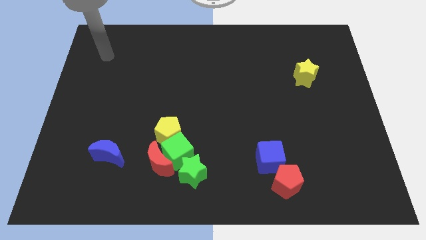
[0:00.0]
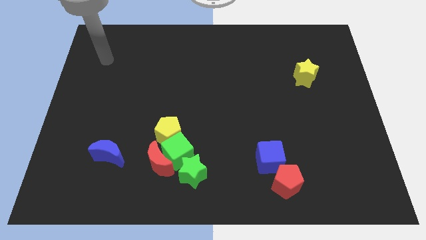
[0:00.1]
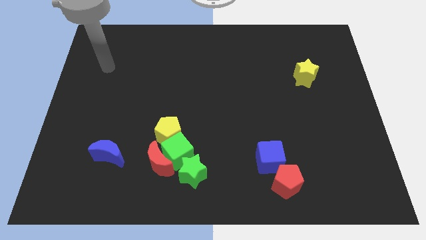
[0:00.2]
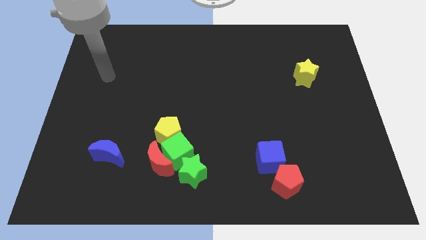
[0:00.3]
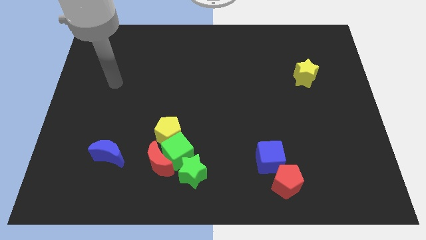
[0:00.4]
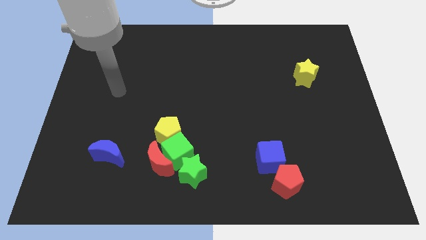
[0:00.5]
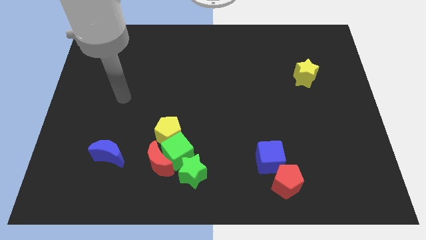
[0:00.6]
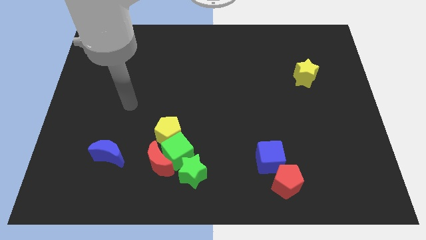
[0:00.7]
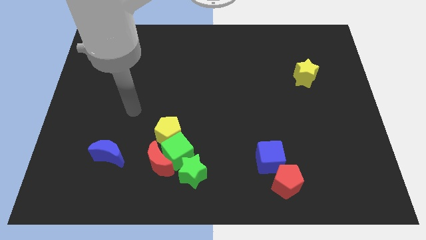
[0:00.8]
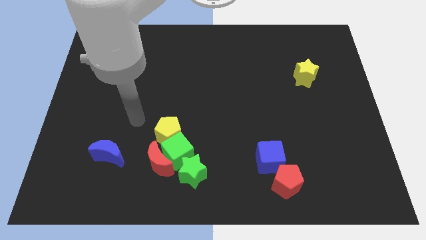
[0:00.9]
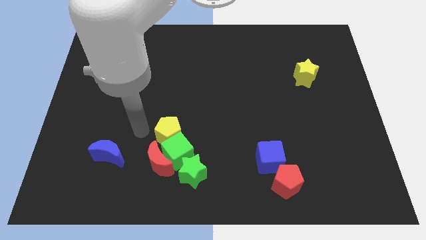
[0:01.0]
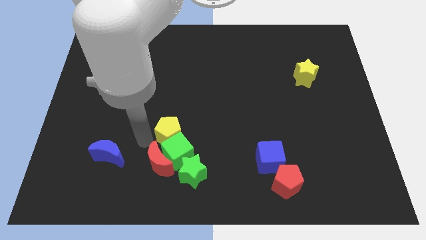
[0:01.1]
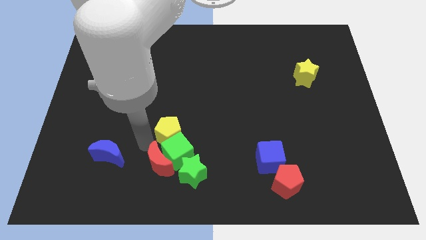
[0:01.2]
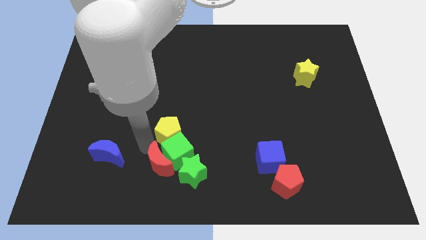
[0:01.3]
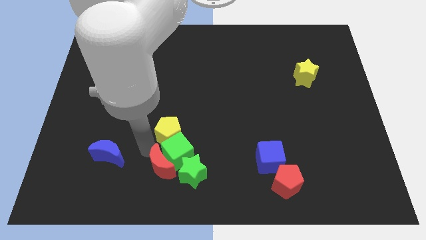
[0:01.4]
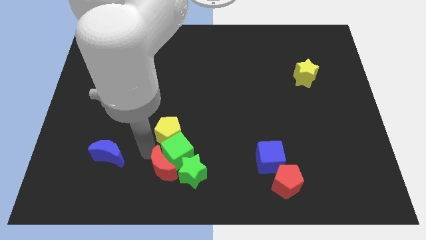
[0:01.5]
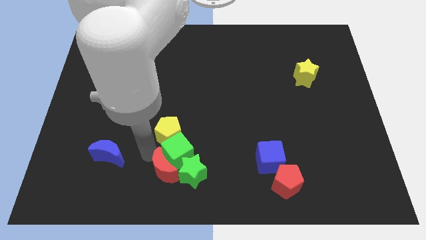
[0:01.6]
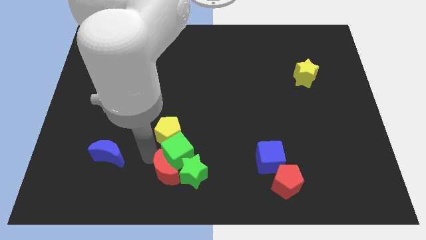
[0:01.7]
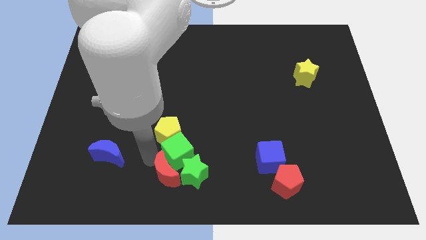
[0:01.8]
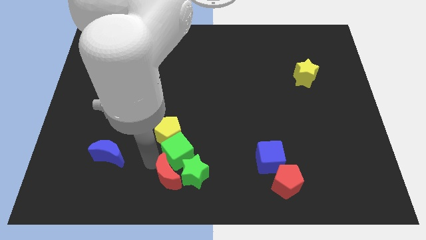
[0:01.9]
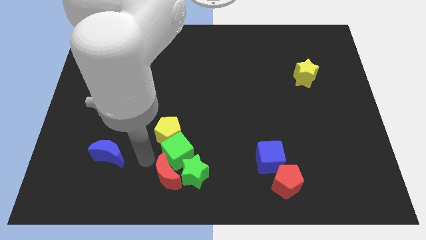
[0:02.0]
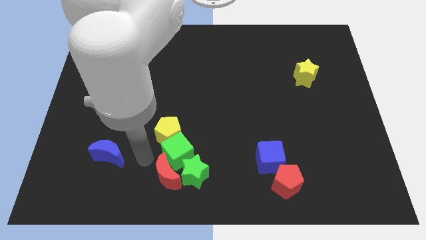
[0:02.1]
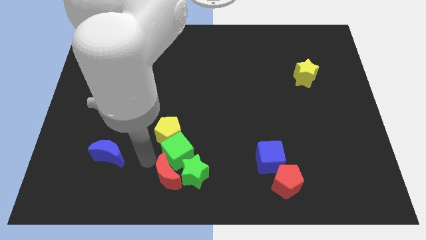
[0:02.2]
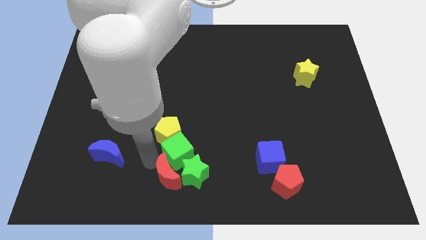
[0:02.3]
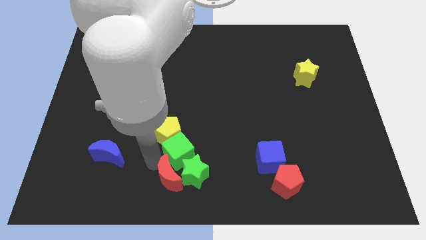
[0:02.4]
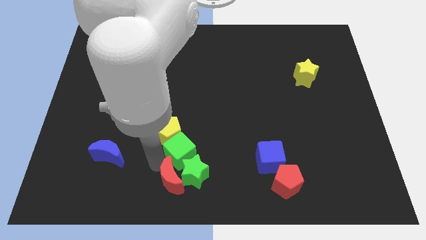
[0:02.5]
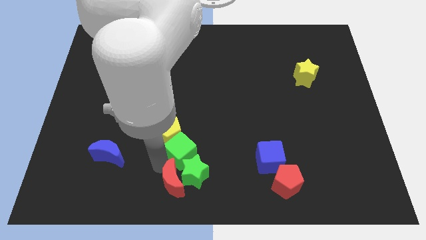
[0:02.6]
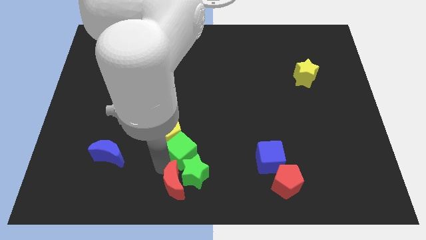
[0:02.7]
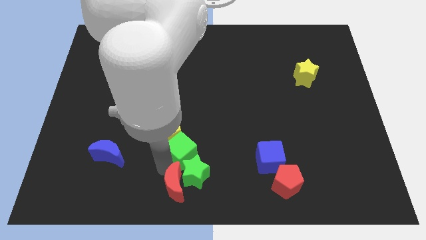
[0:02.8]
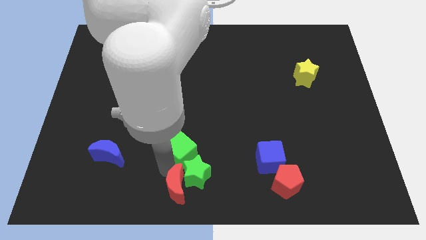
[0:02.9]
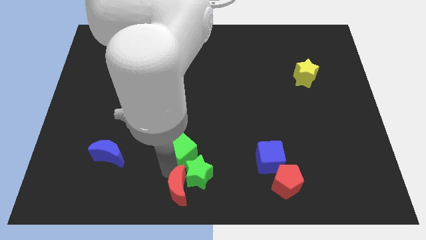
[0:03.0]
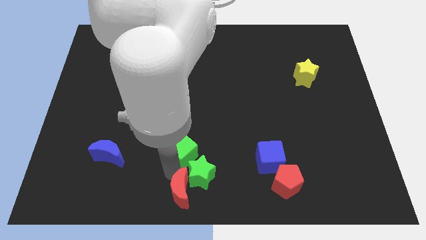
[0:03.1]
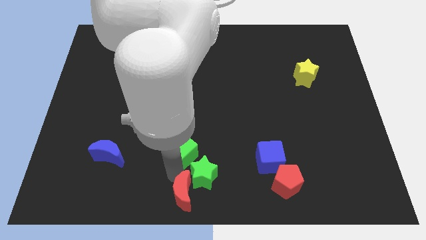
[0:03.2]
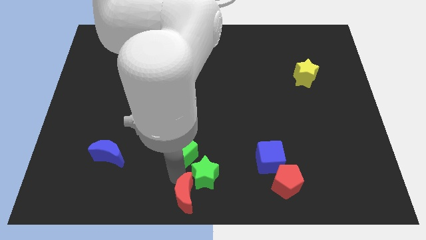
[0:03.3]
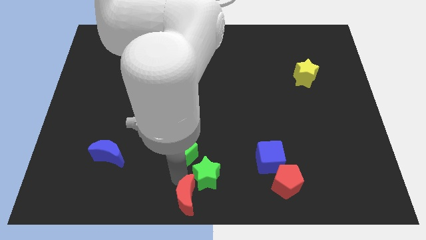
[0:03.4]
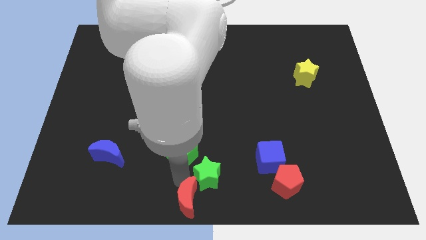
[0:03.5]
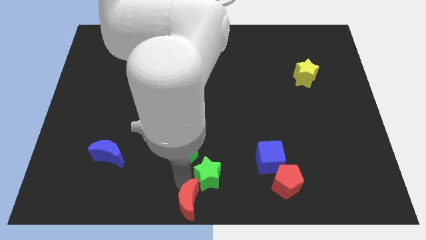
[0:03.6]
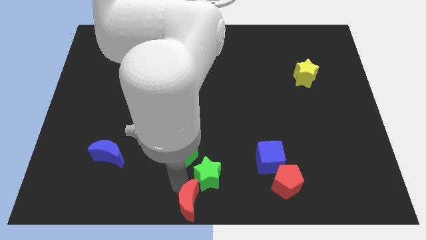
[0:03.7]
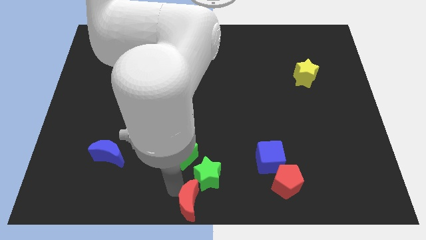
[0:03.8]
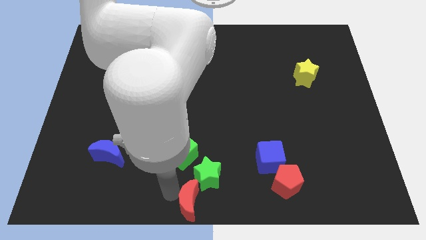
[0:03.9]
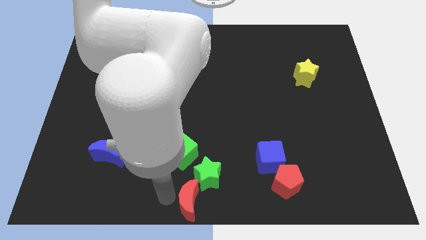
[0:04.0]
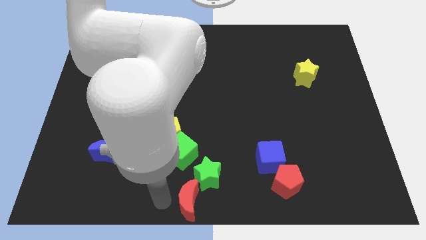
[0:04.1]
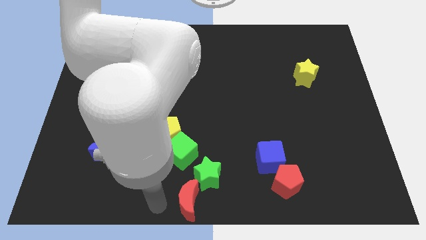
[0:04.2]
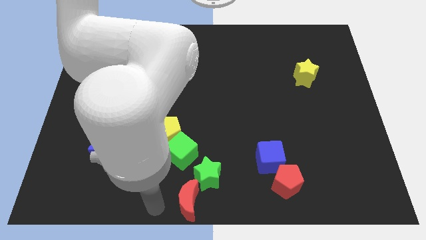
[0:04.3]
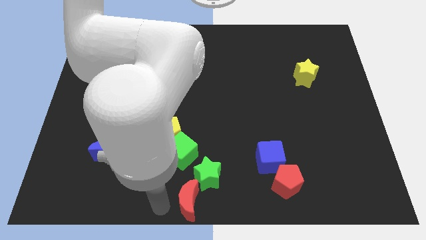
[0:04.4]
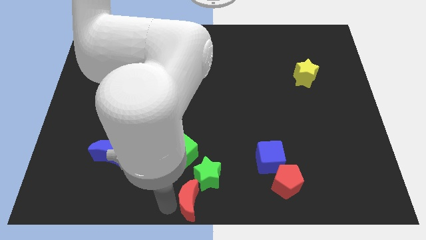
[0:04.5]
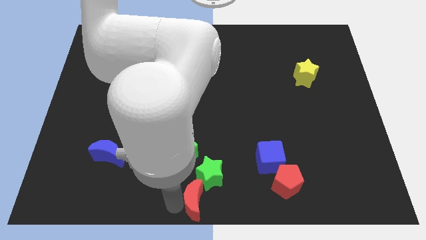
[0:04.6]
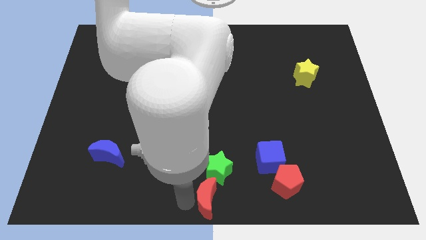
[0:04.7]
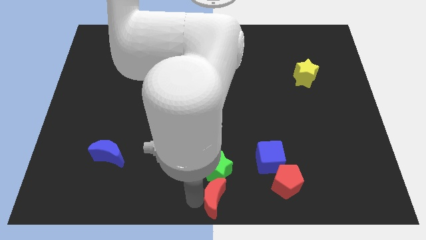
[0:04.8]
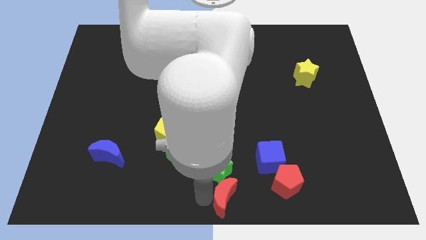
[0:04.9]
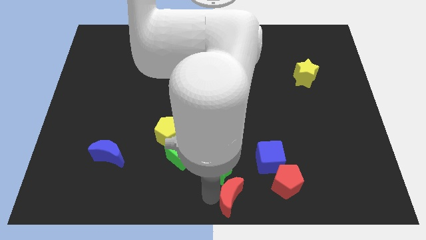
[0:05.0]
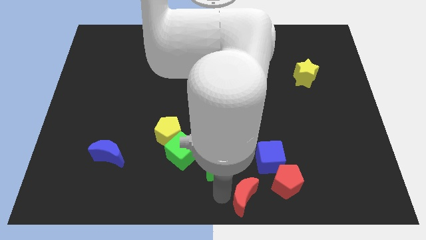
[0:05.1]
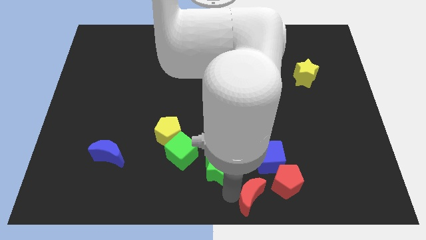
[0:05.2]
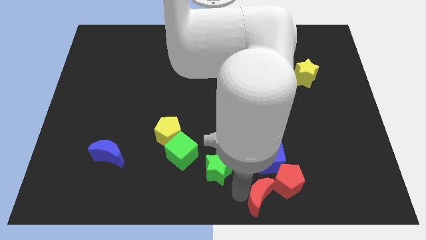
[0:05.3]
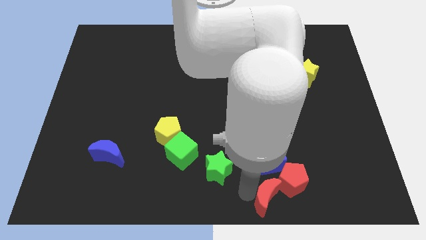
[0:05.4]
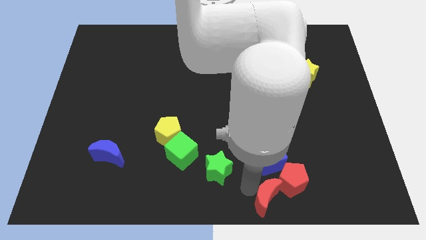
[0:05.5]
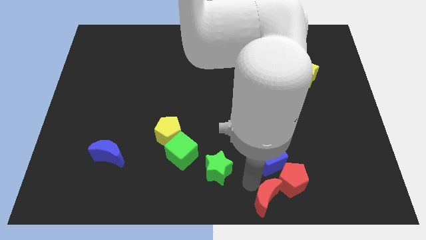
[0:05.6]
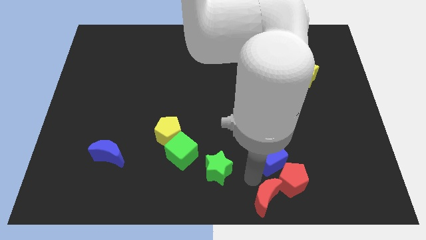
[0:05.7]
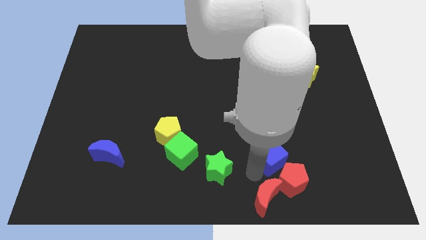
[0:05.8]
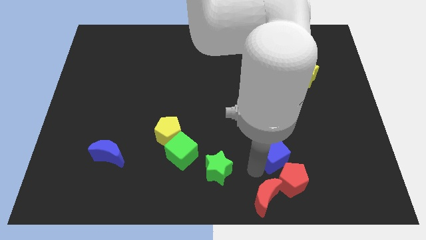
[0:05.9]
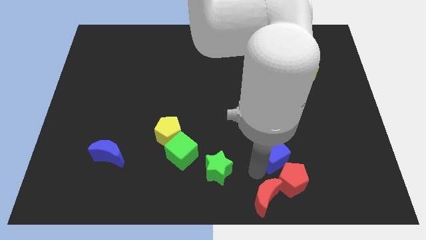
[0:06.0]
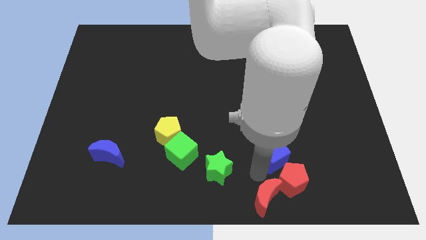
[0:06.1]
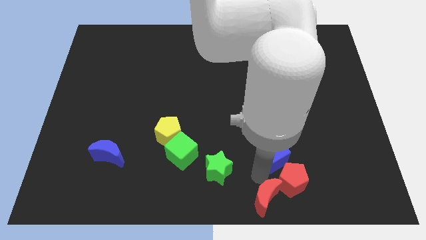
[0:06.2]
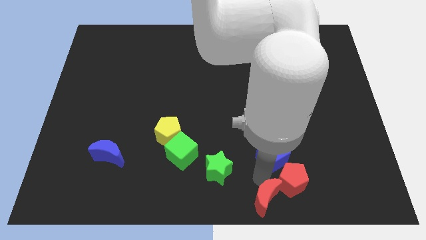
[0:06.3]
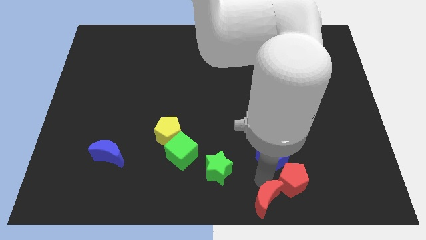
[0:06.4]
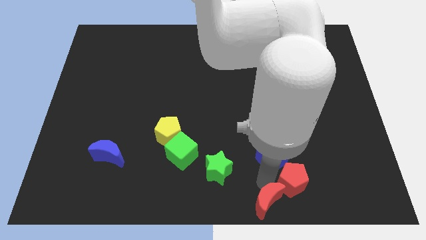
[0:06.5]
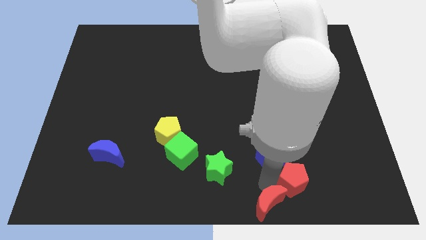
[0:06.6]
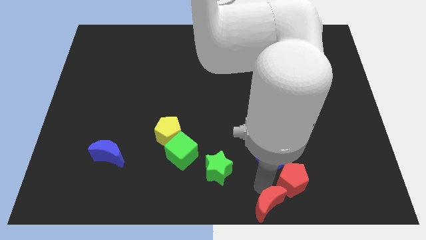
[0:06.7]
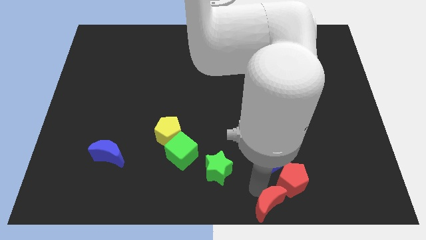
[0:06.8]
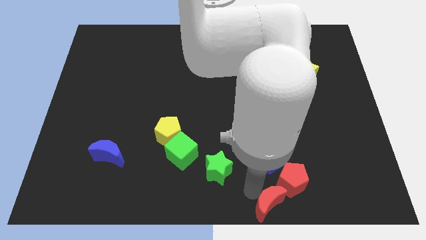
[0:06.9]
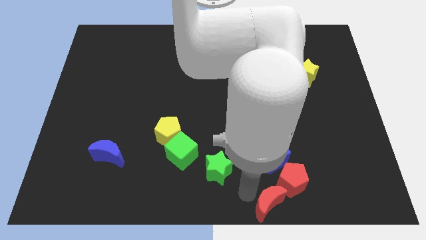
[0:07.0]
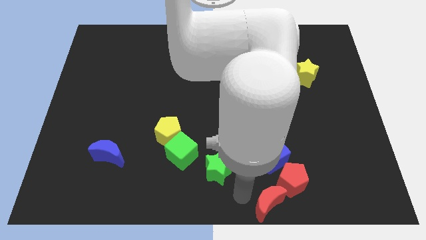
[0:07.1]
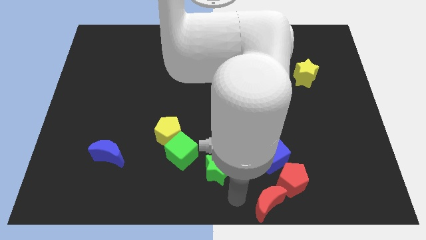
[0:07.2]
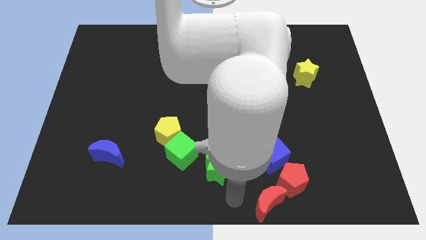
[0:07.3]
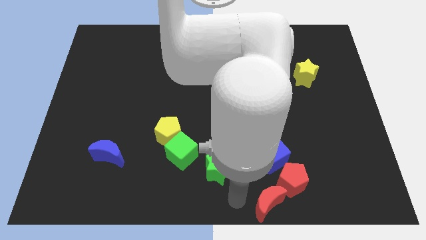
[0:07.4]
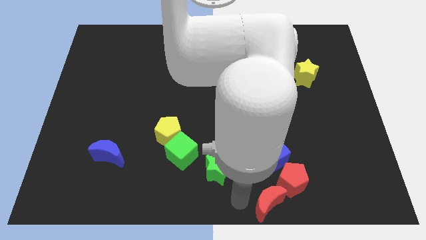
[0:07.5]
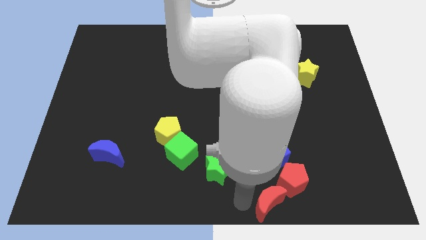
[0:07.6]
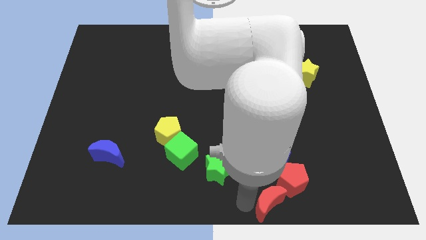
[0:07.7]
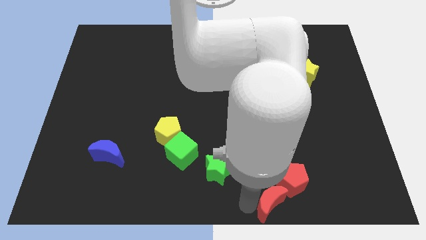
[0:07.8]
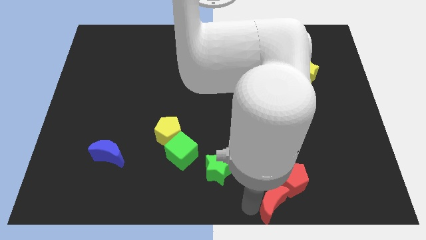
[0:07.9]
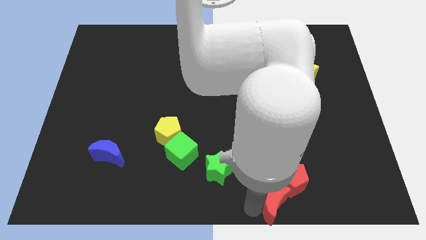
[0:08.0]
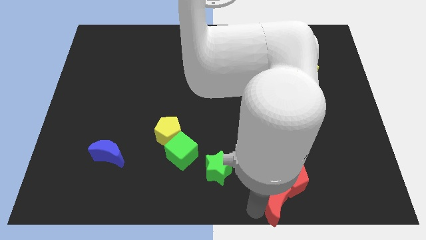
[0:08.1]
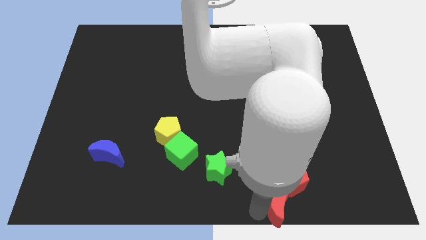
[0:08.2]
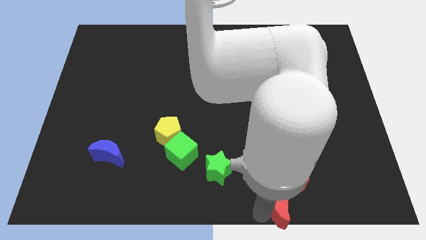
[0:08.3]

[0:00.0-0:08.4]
push the red moon to the right
